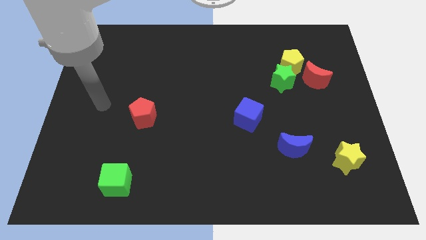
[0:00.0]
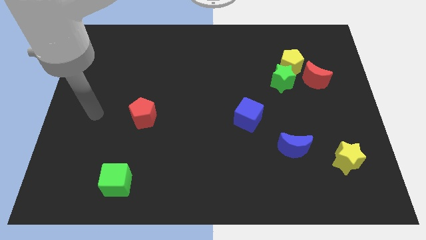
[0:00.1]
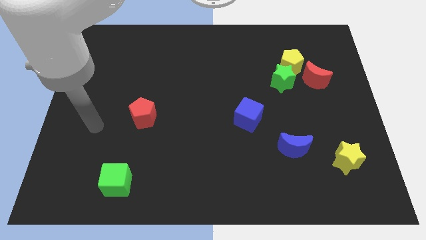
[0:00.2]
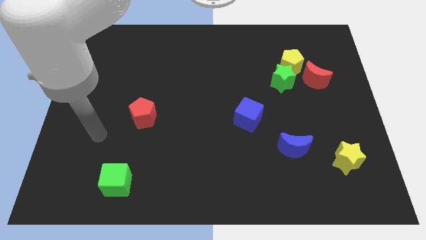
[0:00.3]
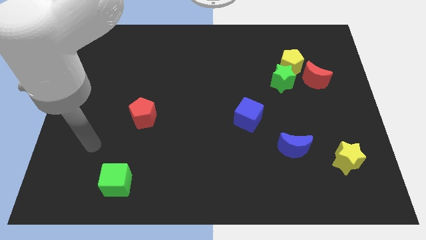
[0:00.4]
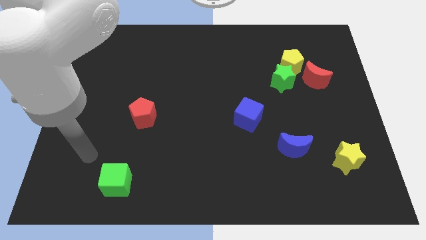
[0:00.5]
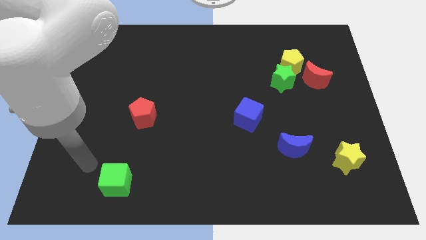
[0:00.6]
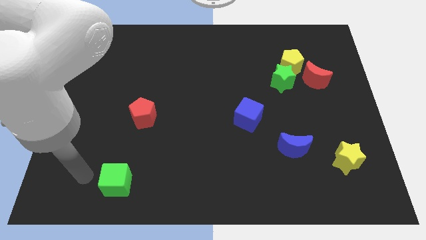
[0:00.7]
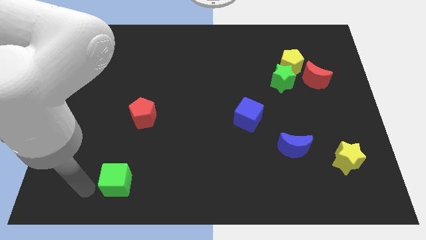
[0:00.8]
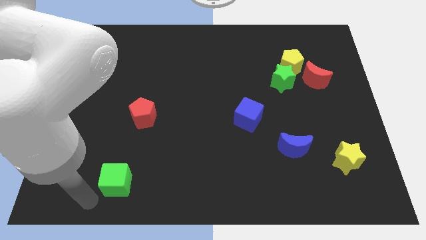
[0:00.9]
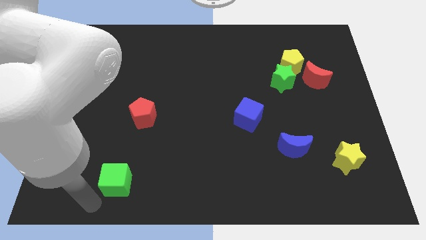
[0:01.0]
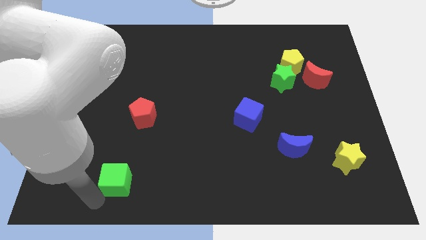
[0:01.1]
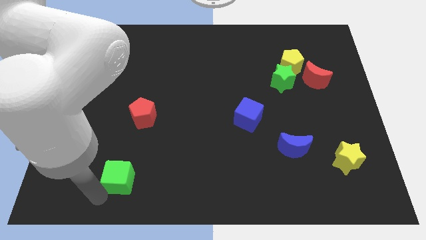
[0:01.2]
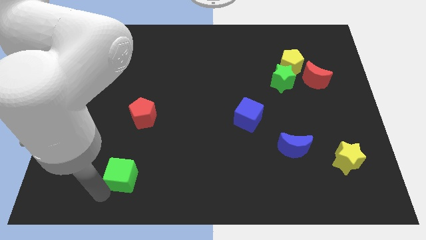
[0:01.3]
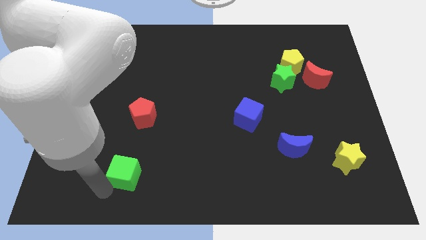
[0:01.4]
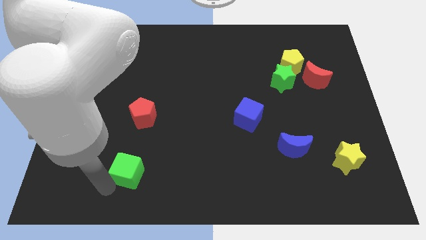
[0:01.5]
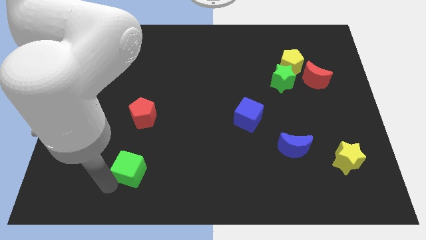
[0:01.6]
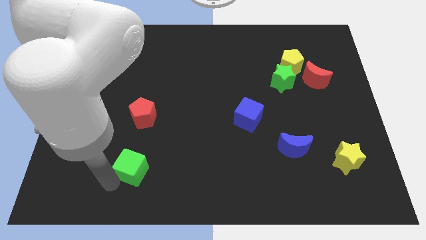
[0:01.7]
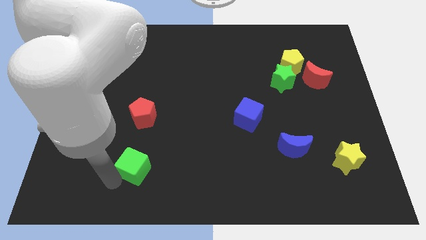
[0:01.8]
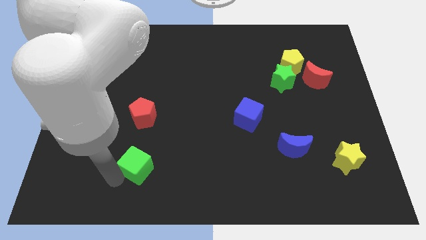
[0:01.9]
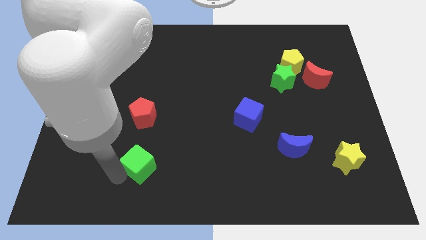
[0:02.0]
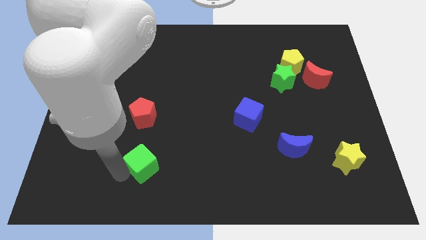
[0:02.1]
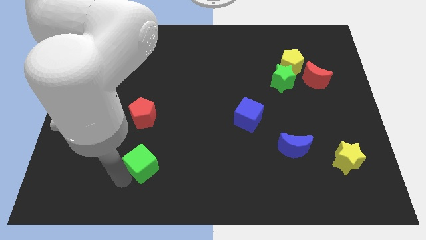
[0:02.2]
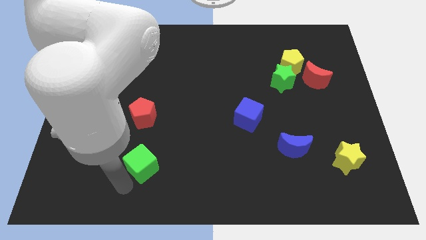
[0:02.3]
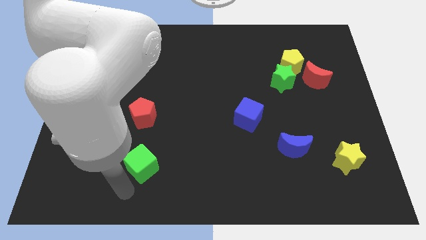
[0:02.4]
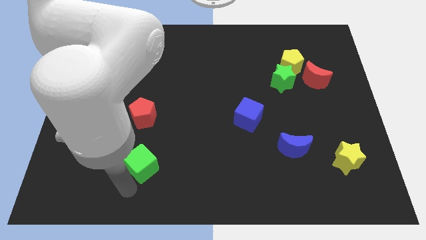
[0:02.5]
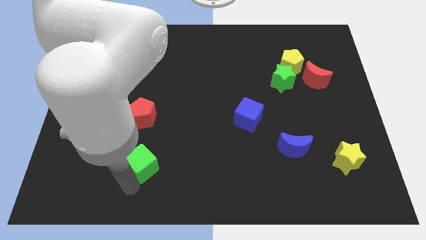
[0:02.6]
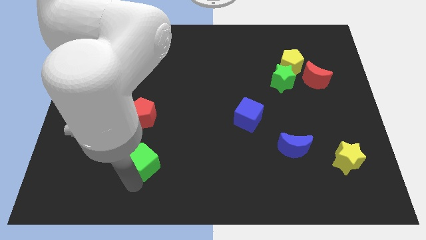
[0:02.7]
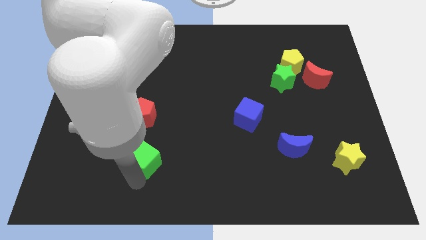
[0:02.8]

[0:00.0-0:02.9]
move the green cube a bit diagonally upwards and to the right

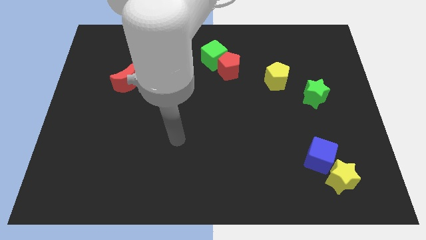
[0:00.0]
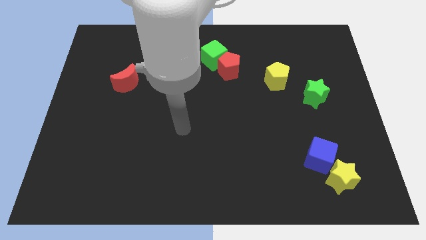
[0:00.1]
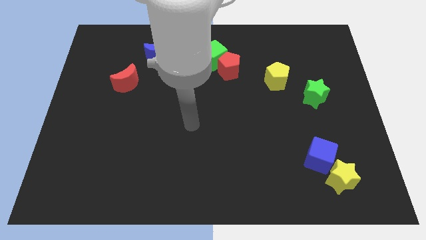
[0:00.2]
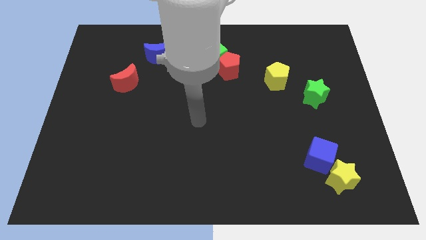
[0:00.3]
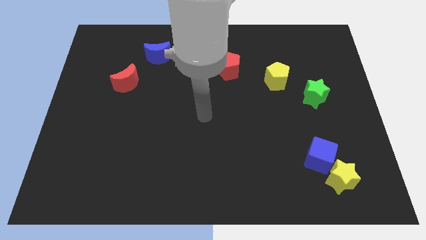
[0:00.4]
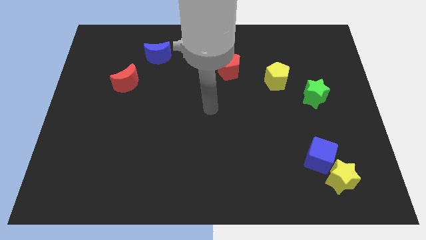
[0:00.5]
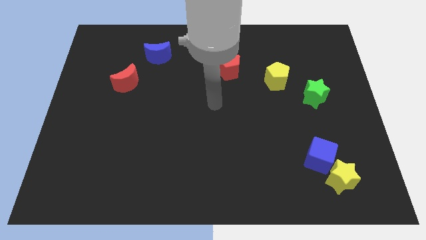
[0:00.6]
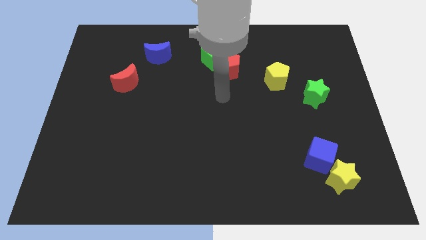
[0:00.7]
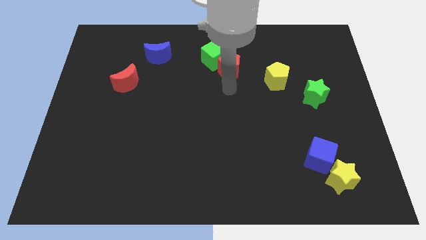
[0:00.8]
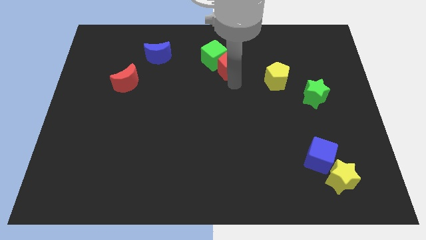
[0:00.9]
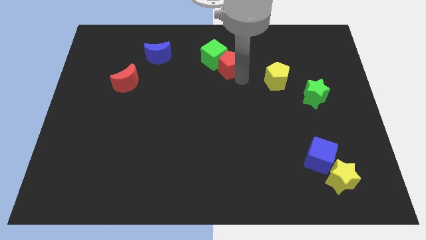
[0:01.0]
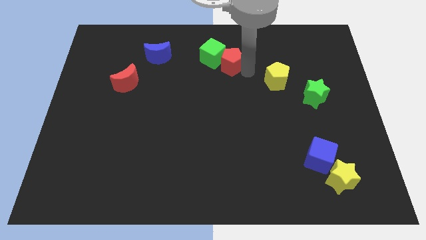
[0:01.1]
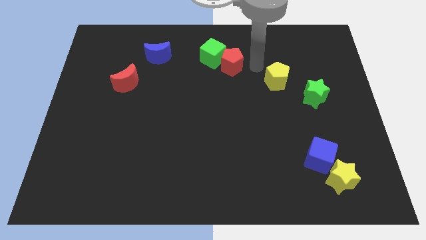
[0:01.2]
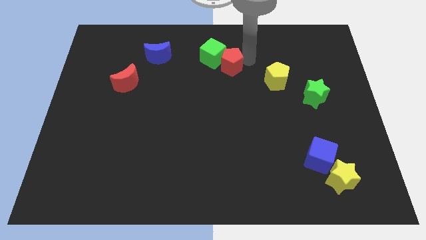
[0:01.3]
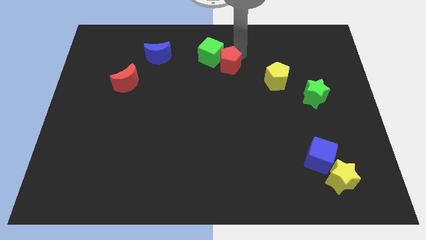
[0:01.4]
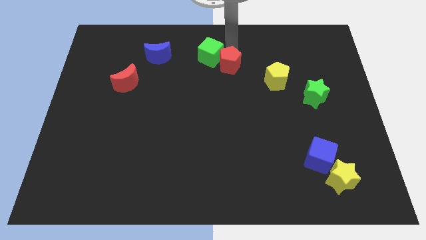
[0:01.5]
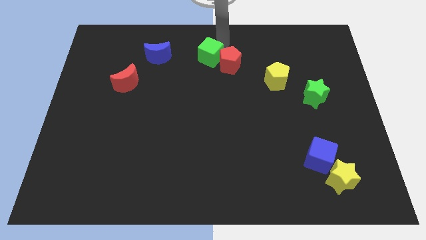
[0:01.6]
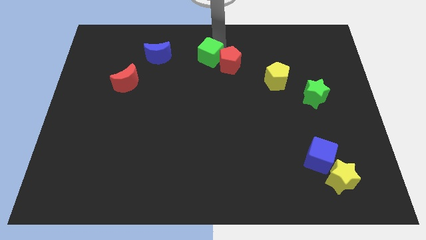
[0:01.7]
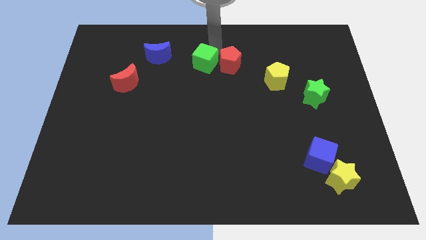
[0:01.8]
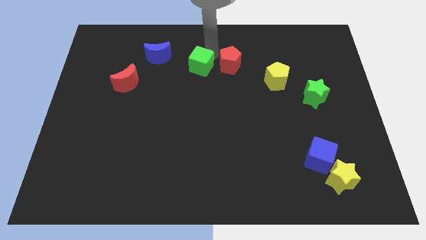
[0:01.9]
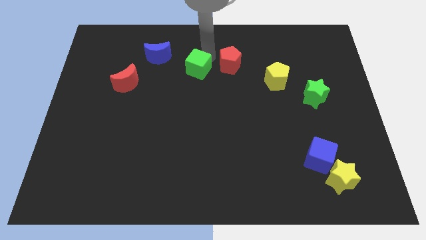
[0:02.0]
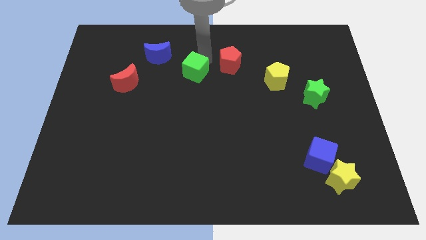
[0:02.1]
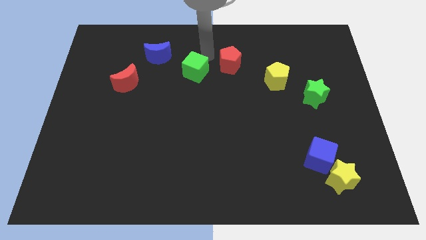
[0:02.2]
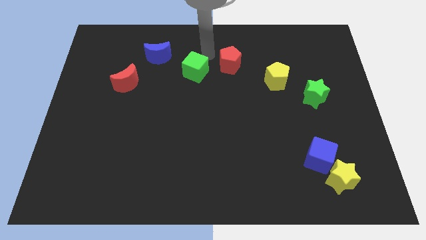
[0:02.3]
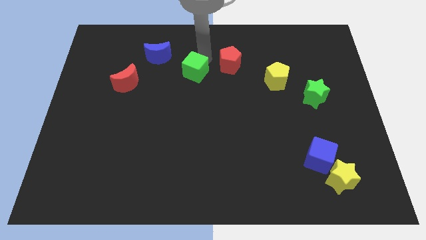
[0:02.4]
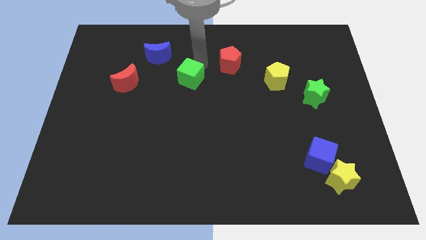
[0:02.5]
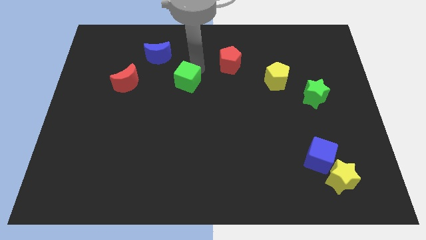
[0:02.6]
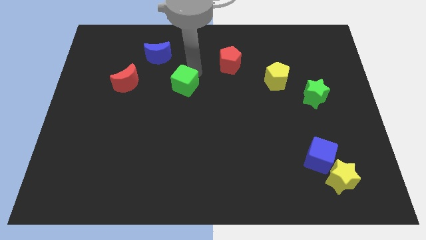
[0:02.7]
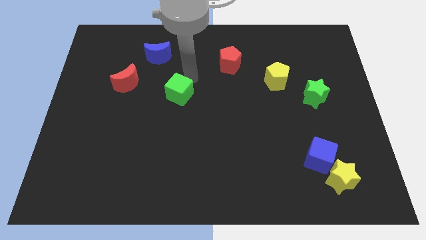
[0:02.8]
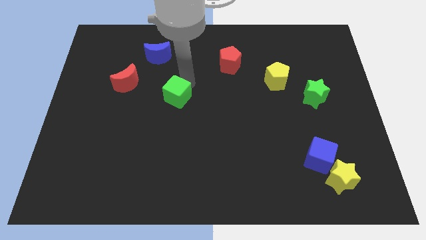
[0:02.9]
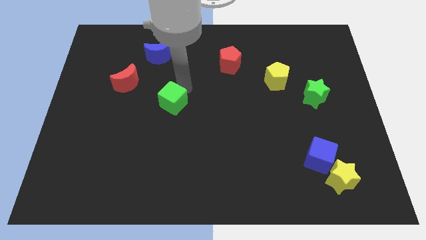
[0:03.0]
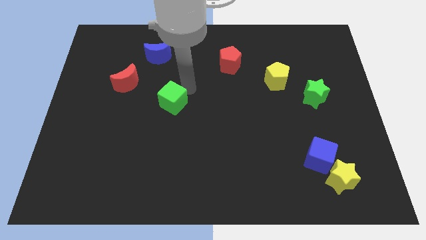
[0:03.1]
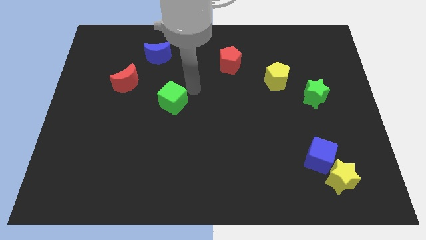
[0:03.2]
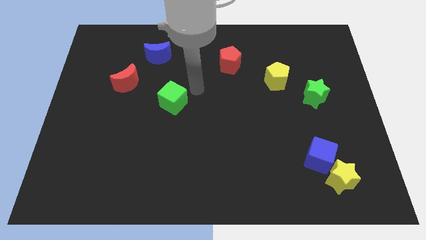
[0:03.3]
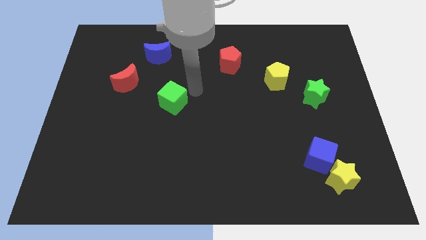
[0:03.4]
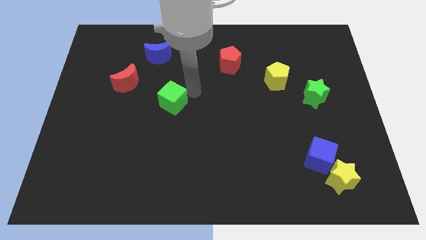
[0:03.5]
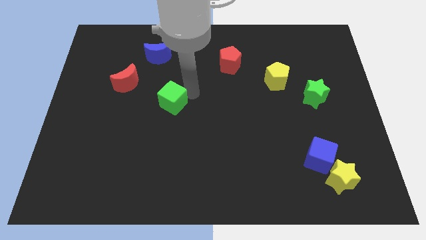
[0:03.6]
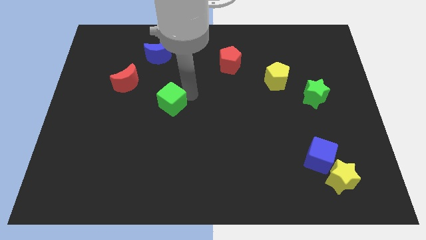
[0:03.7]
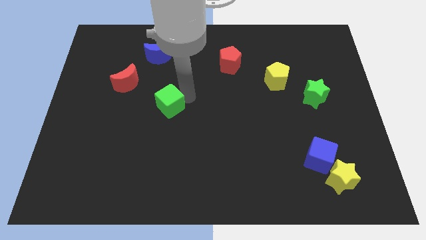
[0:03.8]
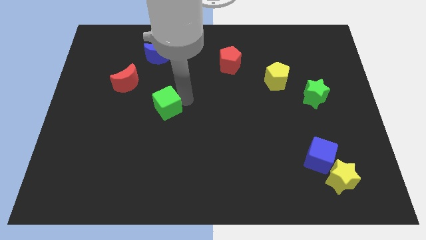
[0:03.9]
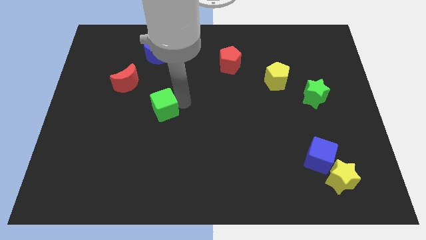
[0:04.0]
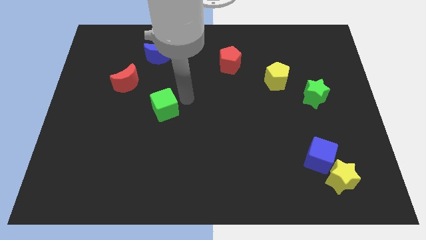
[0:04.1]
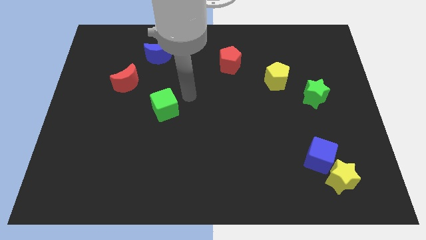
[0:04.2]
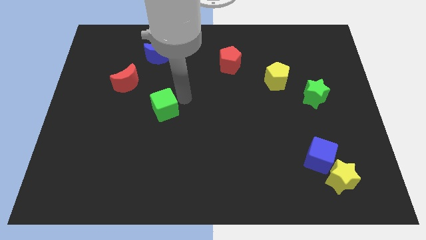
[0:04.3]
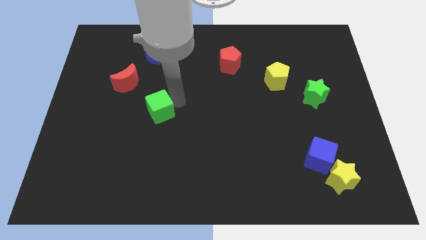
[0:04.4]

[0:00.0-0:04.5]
push the green cube diagonally down and to the left

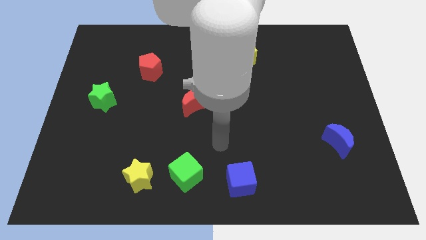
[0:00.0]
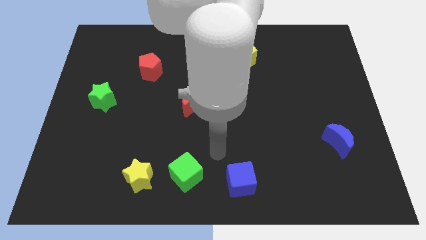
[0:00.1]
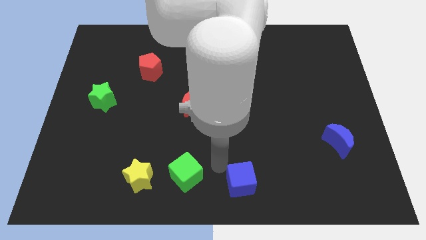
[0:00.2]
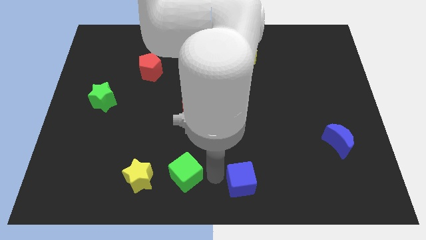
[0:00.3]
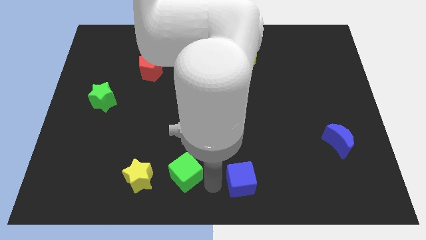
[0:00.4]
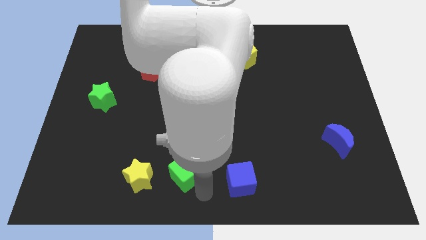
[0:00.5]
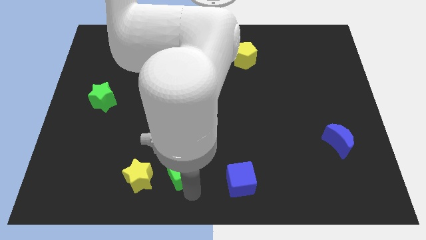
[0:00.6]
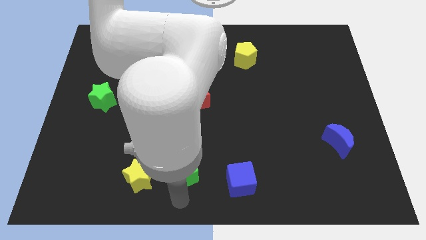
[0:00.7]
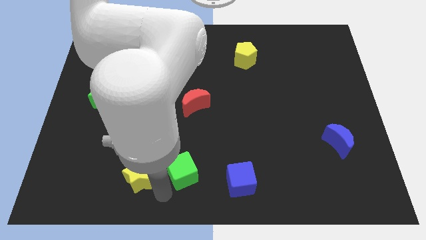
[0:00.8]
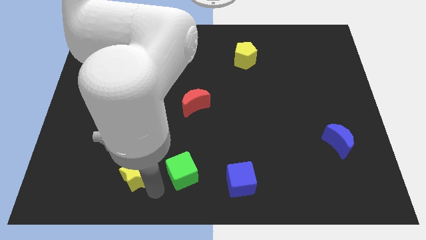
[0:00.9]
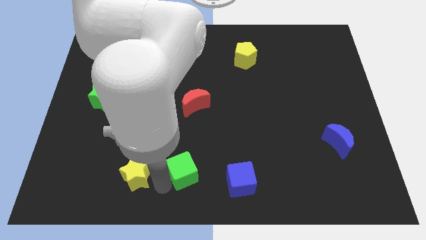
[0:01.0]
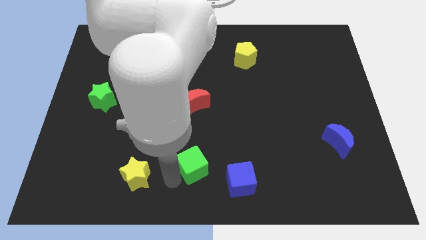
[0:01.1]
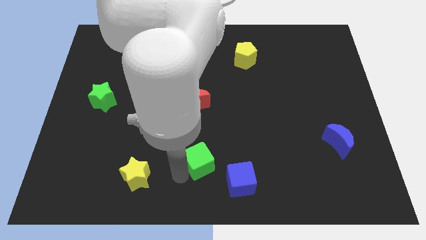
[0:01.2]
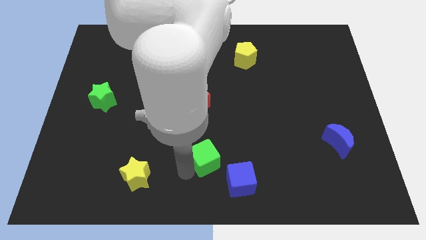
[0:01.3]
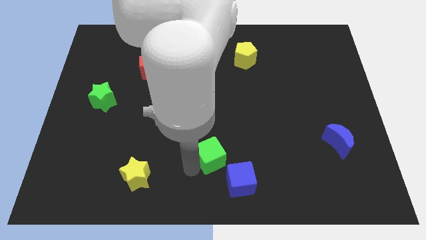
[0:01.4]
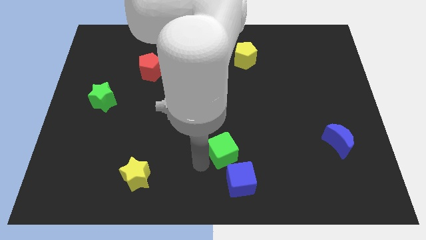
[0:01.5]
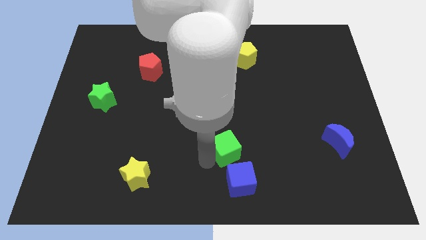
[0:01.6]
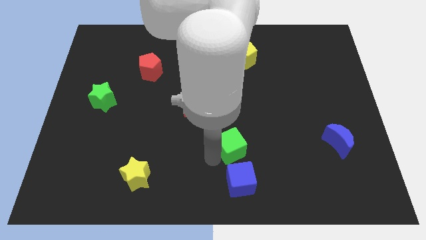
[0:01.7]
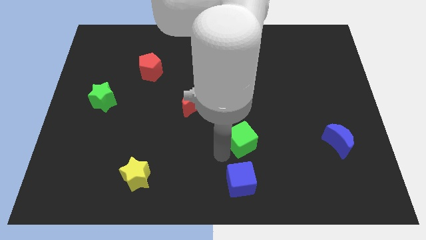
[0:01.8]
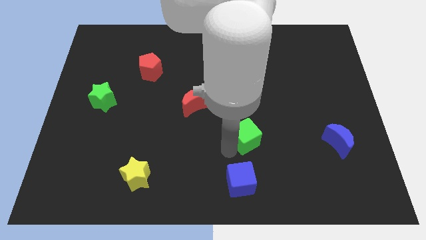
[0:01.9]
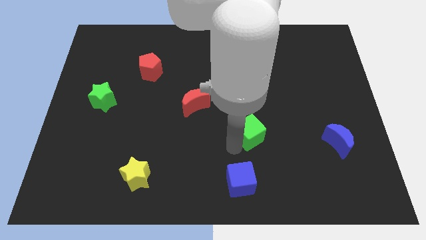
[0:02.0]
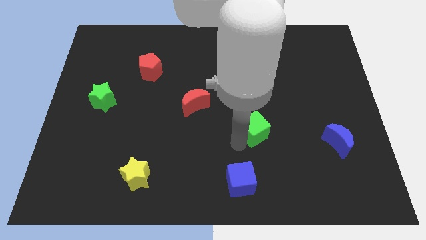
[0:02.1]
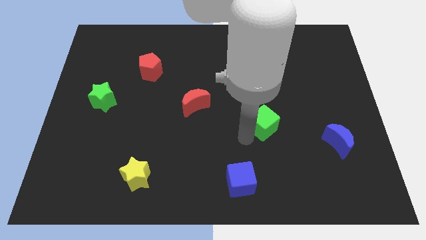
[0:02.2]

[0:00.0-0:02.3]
move the green cube up and then to the right
